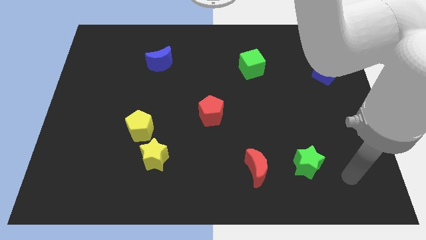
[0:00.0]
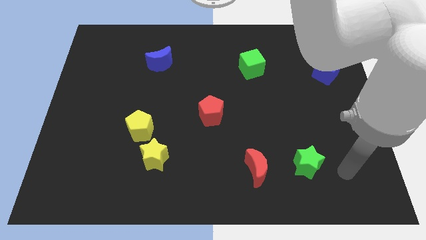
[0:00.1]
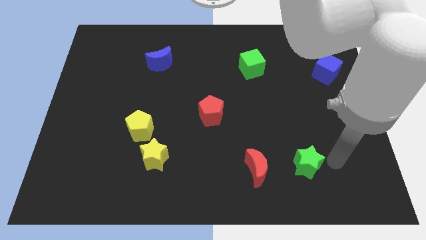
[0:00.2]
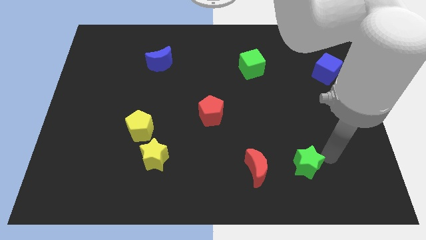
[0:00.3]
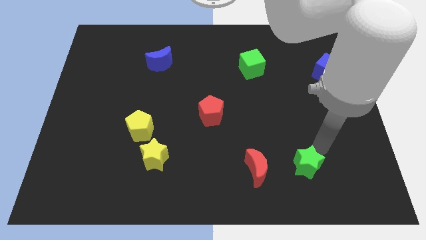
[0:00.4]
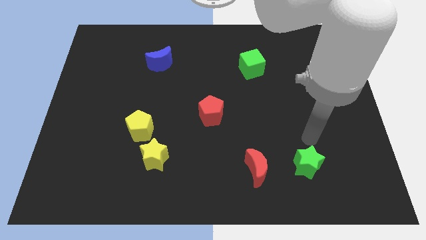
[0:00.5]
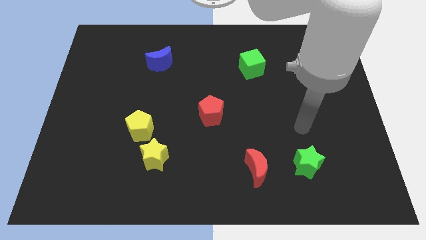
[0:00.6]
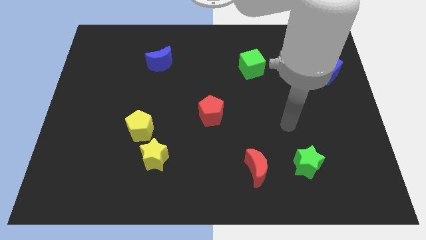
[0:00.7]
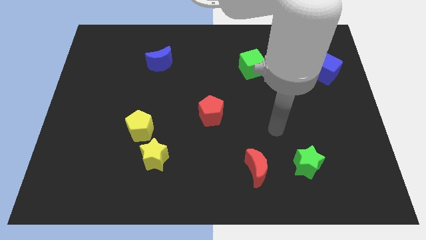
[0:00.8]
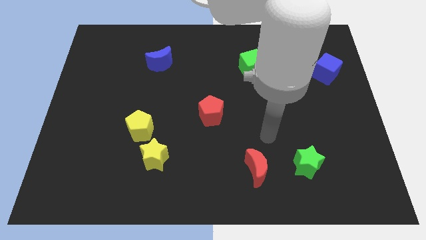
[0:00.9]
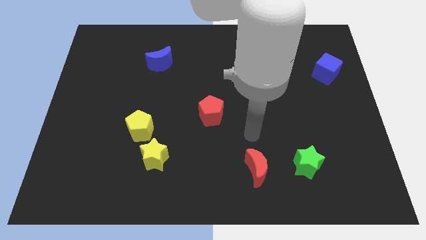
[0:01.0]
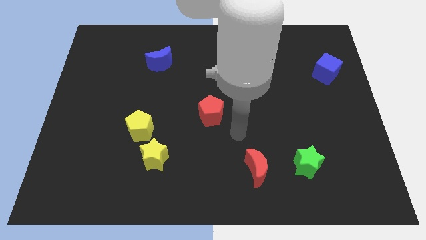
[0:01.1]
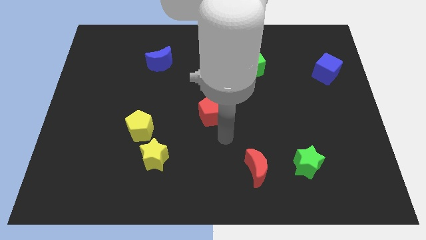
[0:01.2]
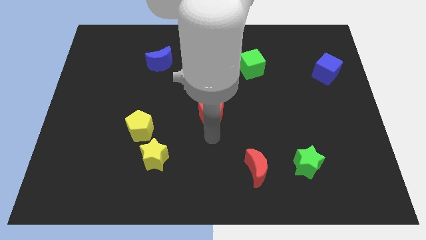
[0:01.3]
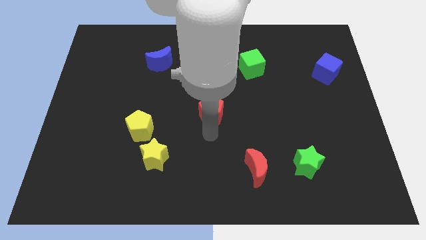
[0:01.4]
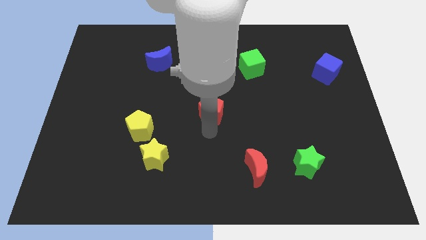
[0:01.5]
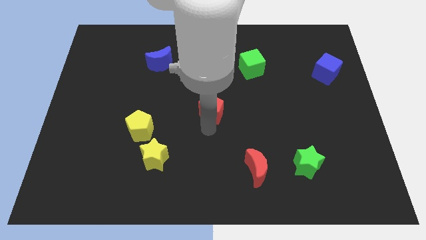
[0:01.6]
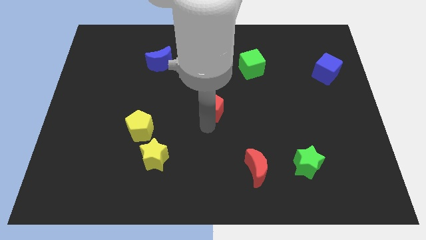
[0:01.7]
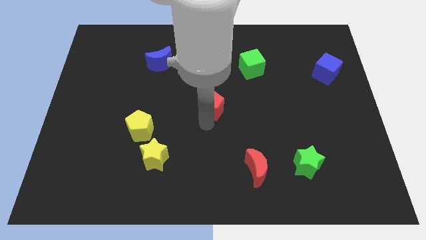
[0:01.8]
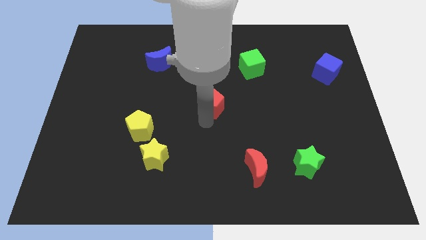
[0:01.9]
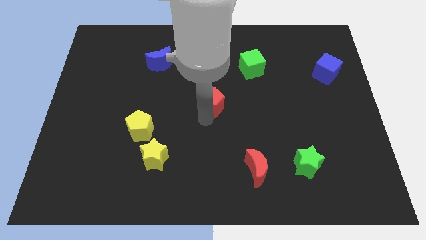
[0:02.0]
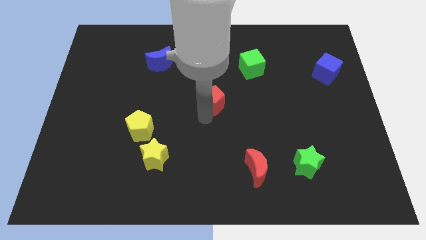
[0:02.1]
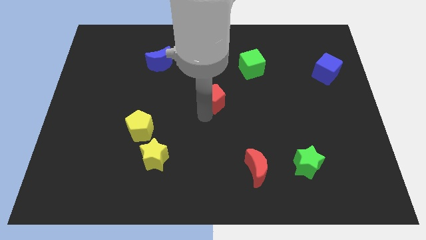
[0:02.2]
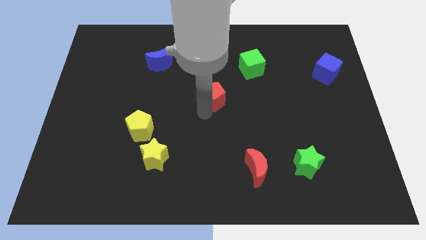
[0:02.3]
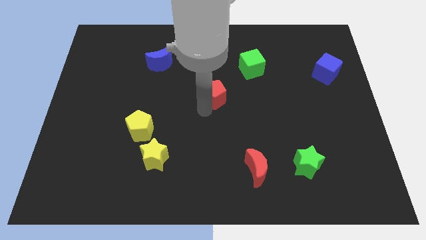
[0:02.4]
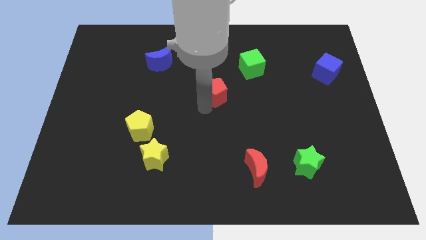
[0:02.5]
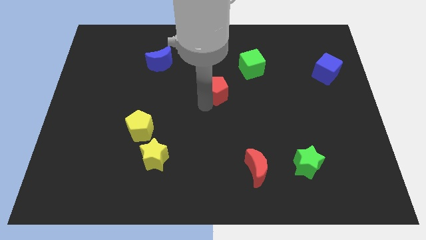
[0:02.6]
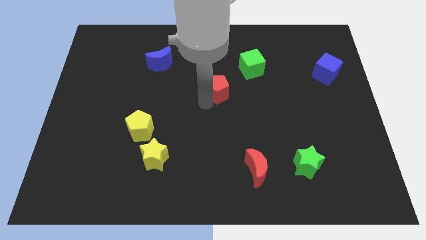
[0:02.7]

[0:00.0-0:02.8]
slide the red pentagon up a little

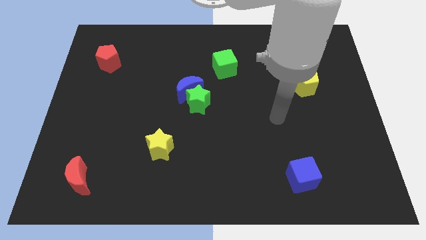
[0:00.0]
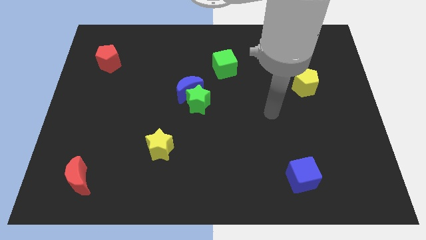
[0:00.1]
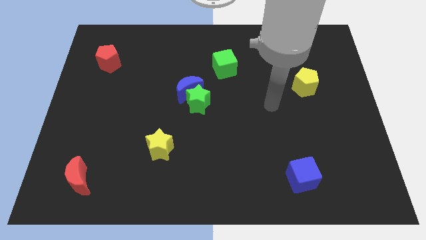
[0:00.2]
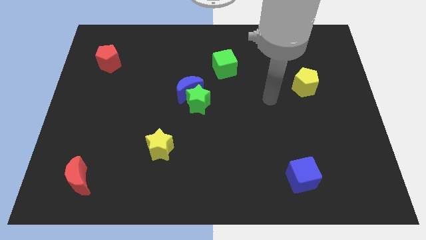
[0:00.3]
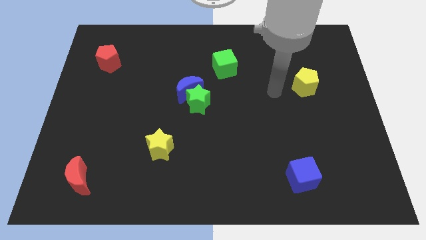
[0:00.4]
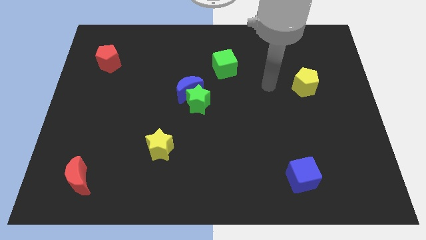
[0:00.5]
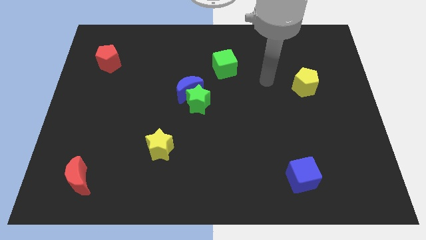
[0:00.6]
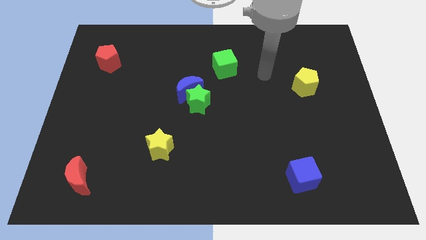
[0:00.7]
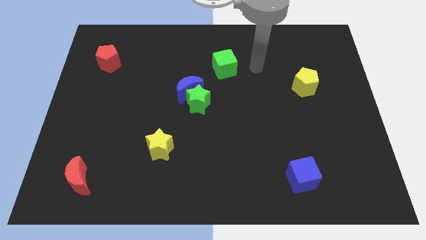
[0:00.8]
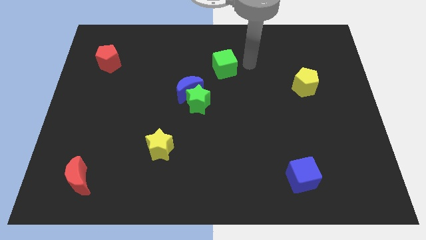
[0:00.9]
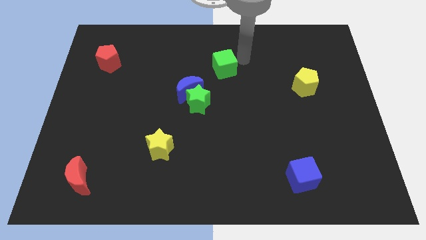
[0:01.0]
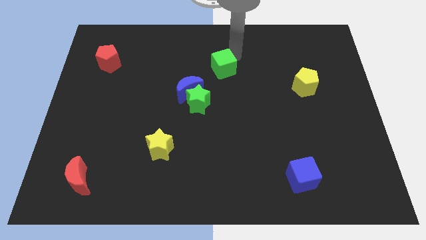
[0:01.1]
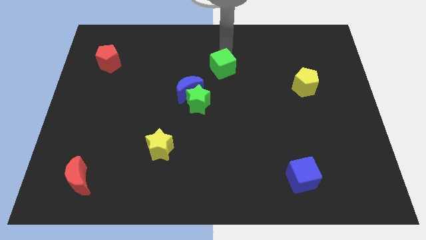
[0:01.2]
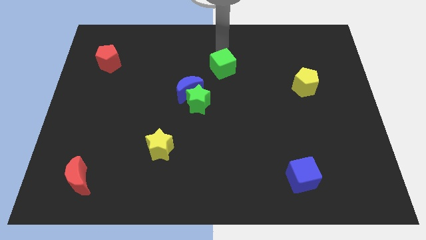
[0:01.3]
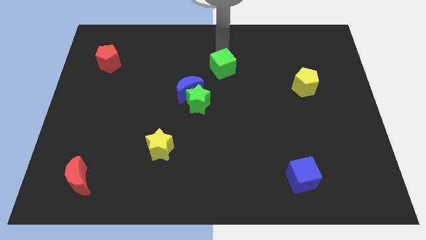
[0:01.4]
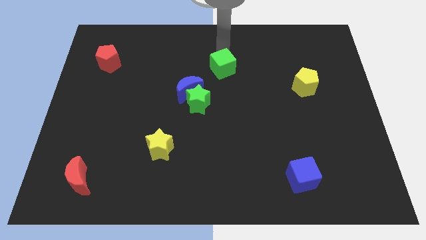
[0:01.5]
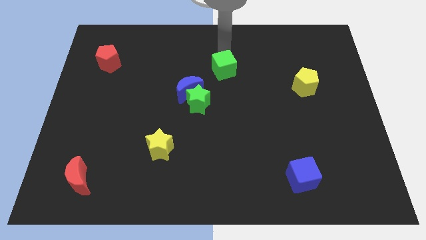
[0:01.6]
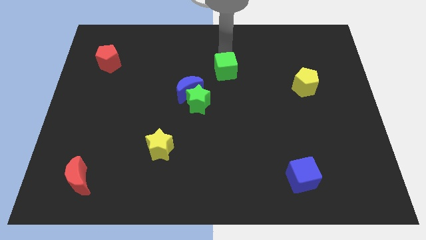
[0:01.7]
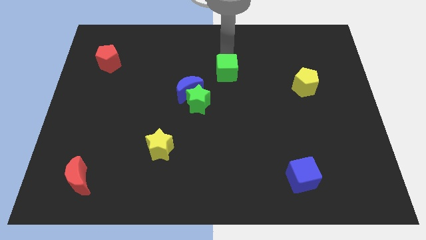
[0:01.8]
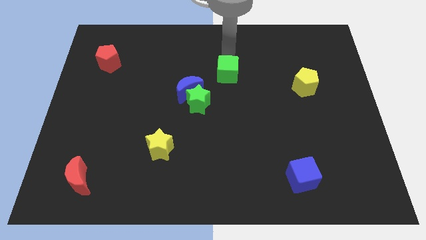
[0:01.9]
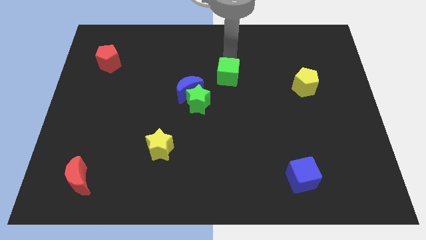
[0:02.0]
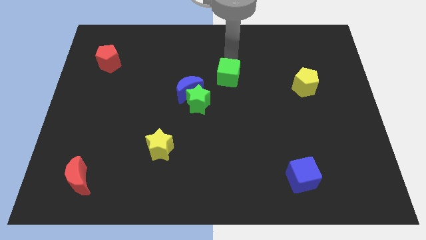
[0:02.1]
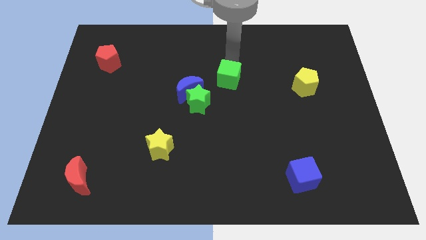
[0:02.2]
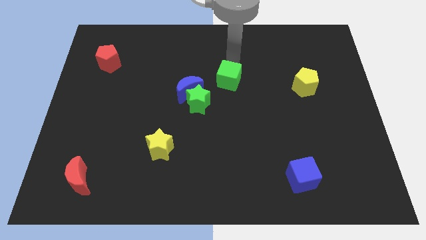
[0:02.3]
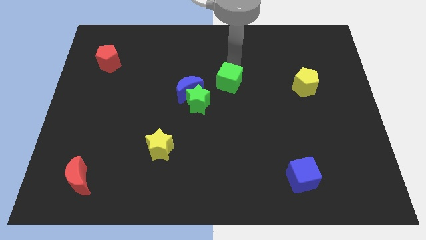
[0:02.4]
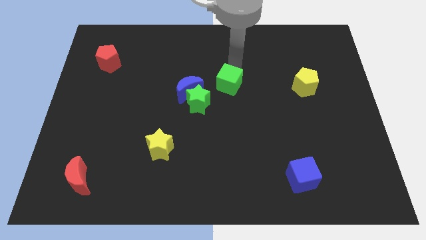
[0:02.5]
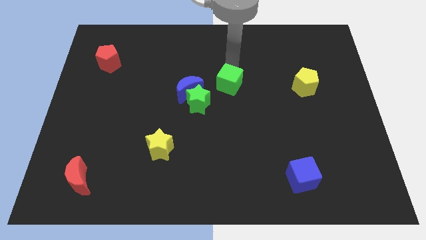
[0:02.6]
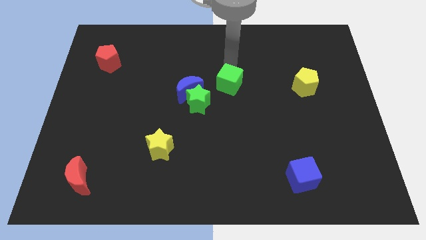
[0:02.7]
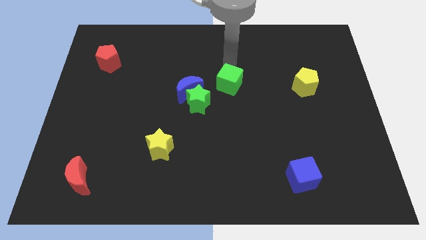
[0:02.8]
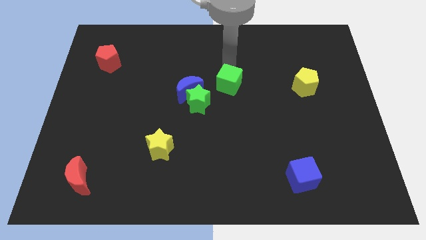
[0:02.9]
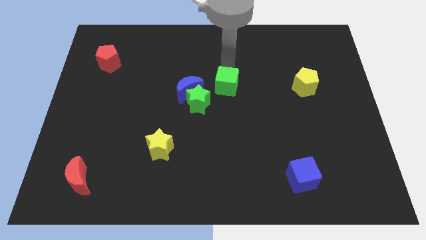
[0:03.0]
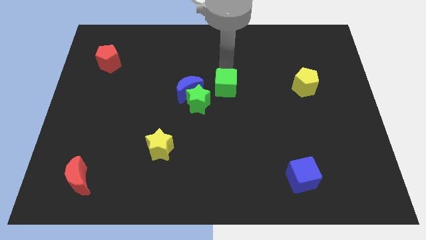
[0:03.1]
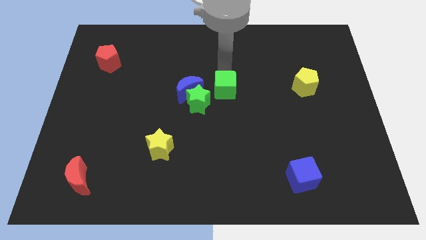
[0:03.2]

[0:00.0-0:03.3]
move the green cube down a little

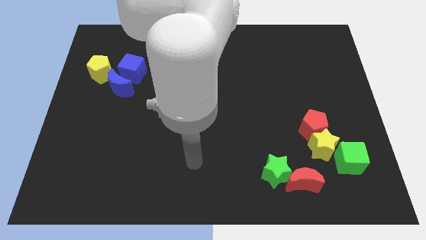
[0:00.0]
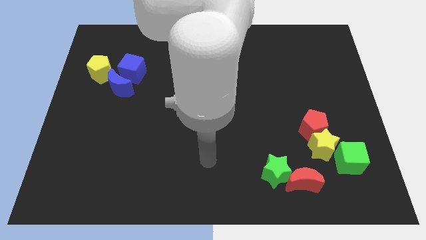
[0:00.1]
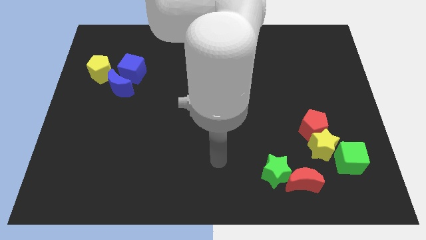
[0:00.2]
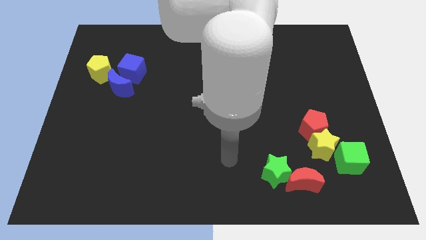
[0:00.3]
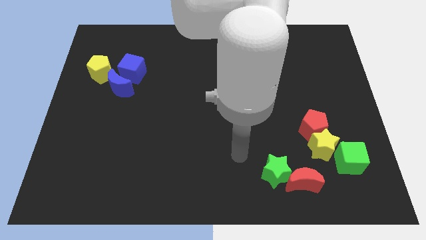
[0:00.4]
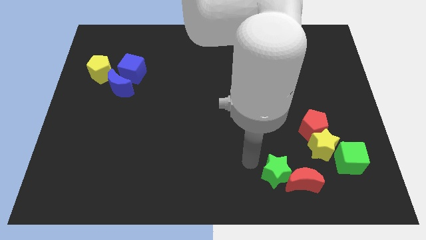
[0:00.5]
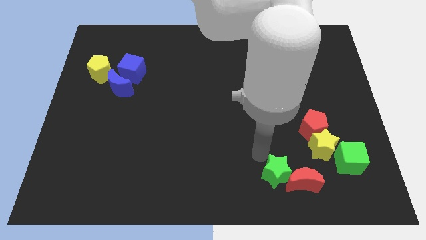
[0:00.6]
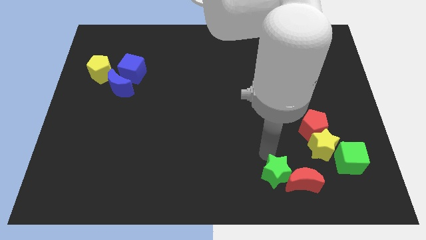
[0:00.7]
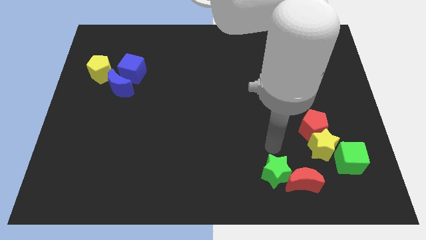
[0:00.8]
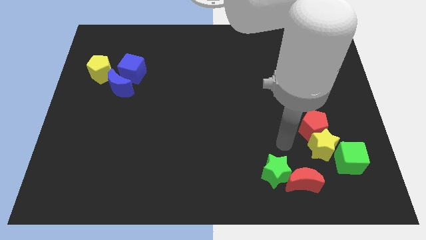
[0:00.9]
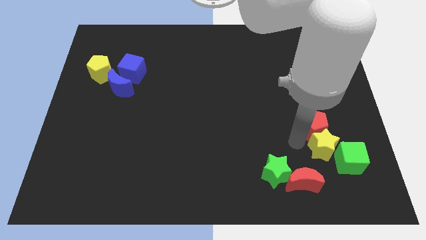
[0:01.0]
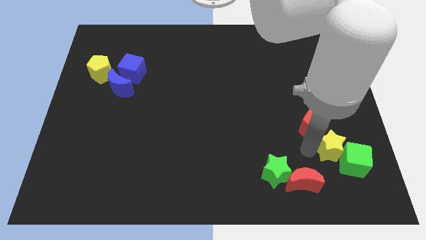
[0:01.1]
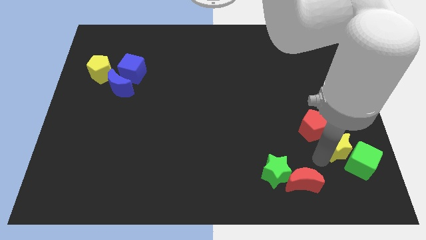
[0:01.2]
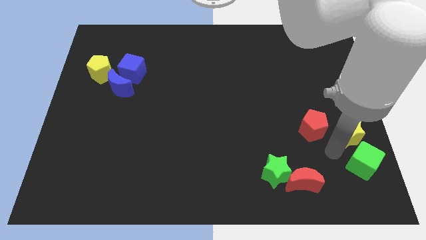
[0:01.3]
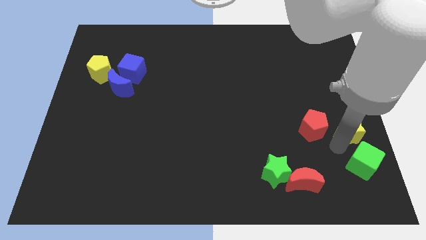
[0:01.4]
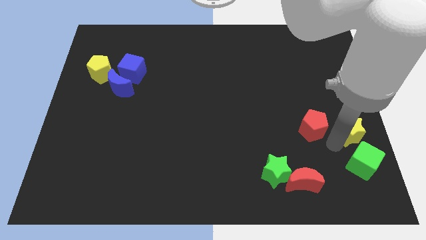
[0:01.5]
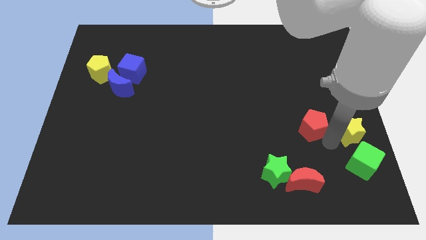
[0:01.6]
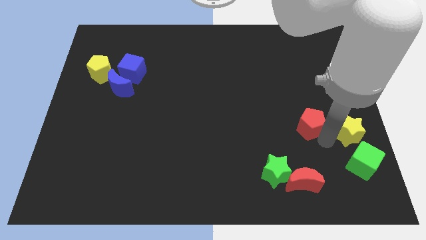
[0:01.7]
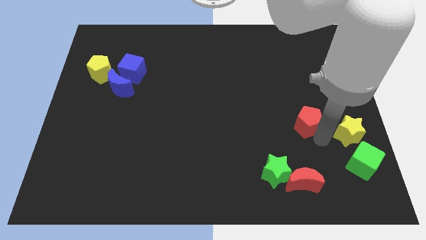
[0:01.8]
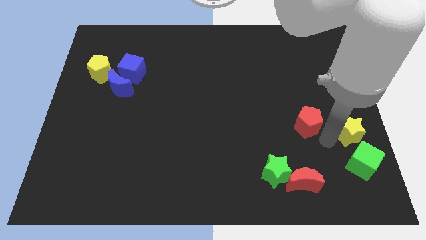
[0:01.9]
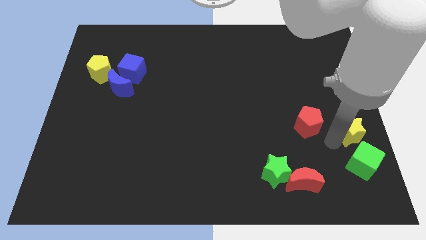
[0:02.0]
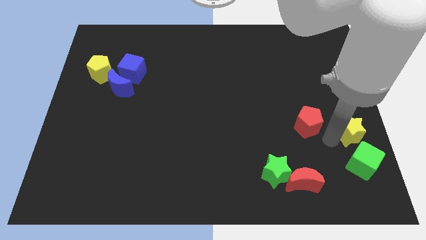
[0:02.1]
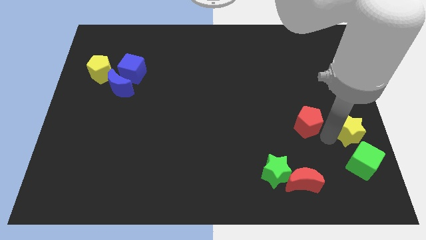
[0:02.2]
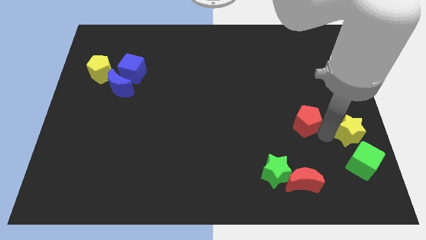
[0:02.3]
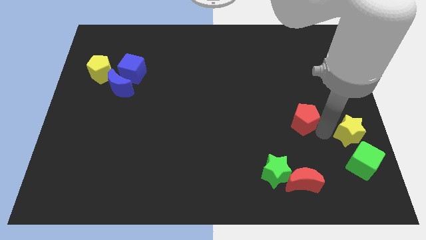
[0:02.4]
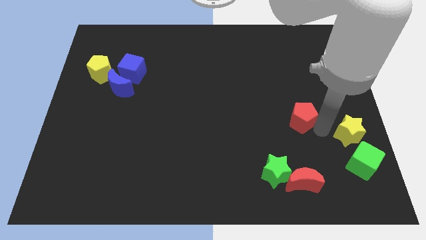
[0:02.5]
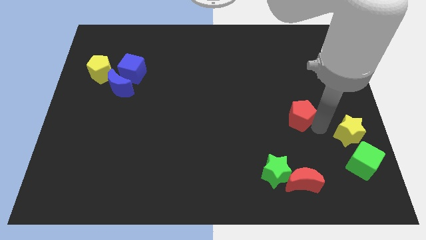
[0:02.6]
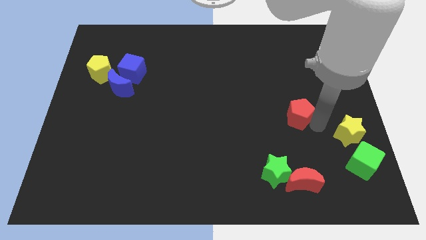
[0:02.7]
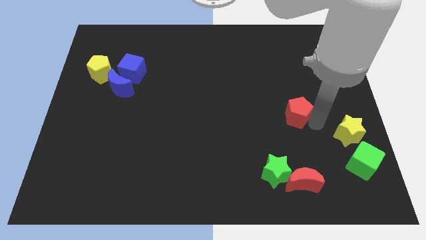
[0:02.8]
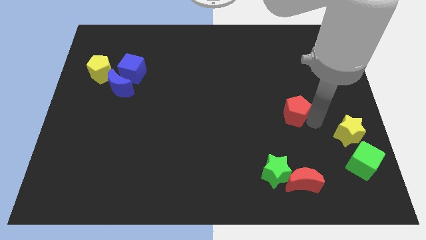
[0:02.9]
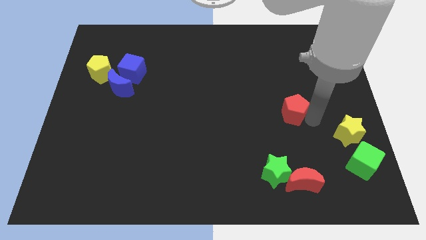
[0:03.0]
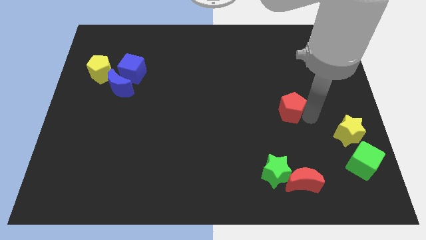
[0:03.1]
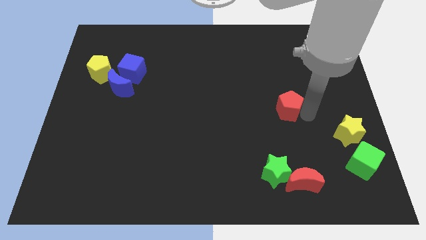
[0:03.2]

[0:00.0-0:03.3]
slide the red pentagon a little bit diagonally upwards and to the left
